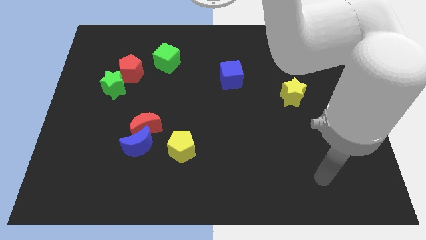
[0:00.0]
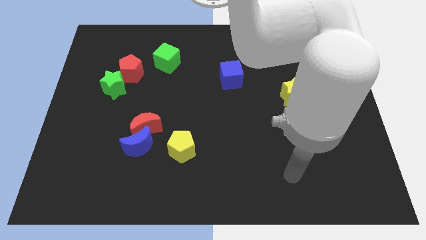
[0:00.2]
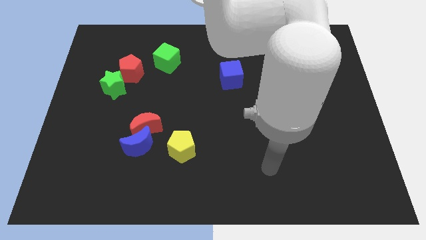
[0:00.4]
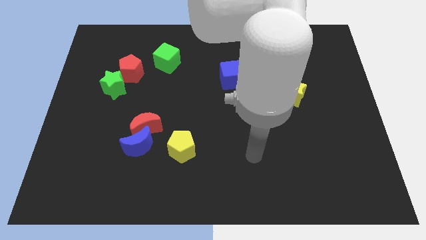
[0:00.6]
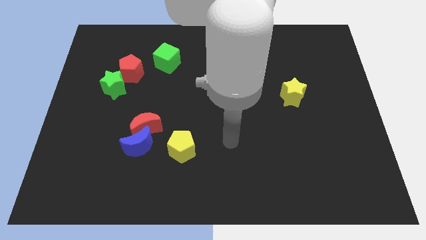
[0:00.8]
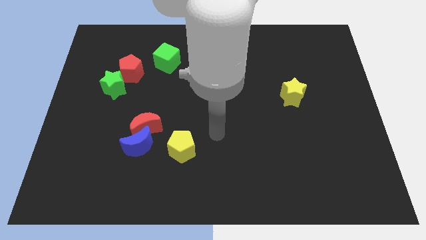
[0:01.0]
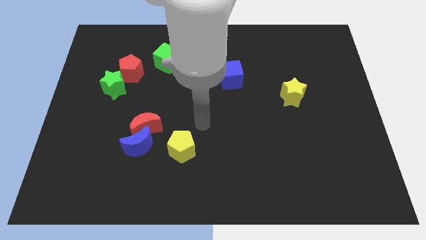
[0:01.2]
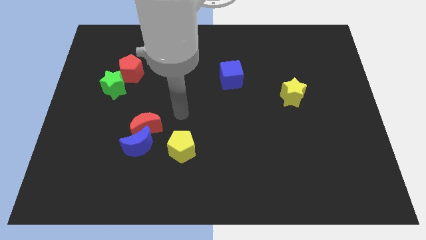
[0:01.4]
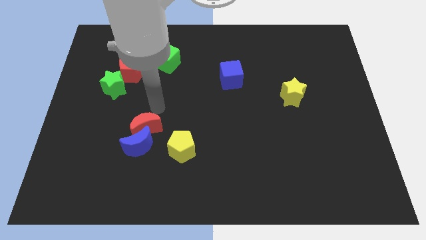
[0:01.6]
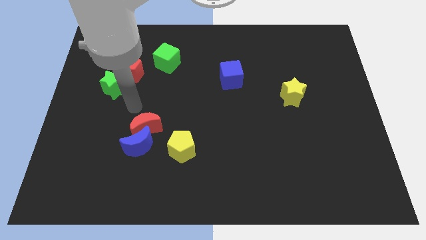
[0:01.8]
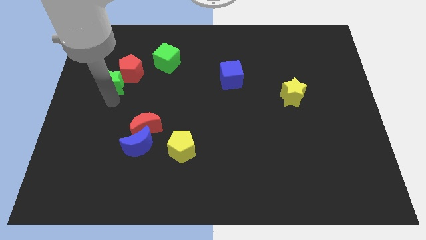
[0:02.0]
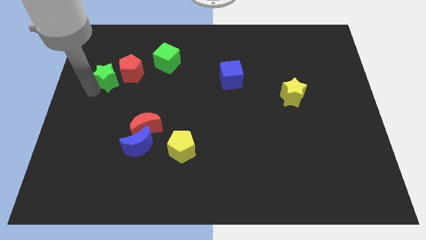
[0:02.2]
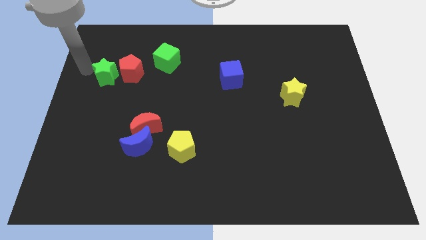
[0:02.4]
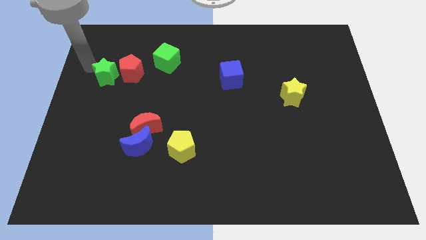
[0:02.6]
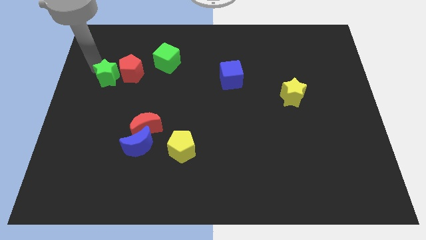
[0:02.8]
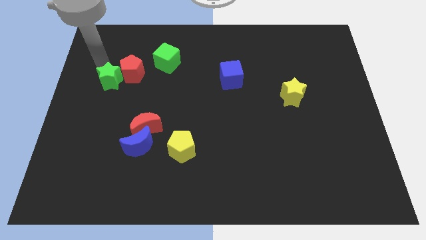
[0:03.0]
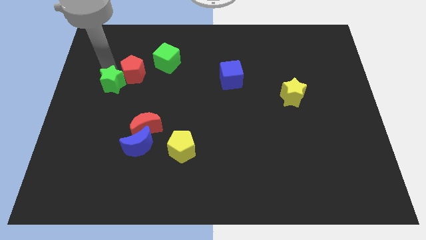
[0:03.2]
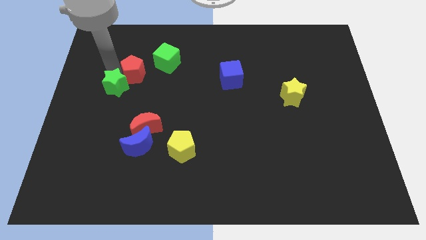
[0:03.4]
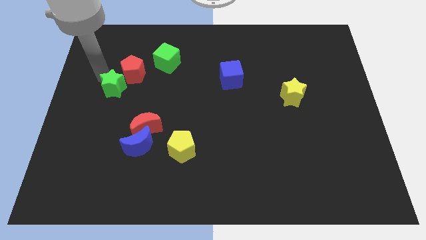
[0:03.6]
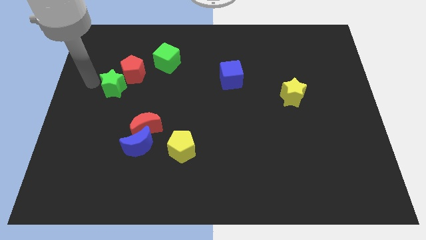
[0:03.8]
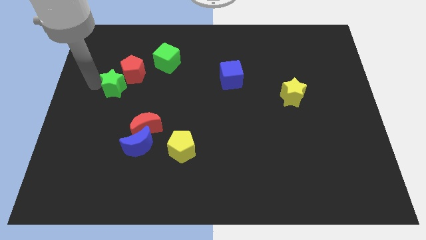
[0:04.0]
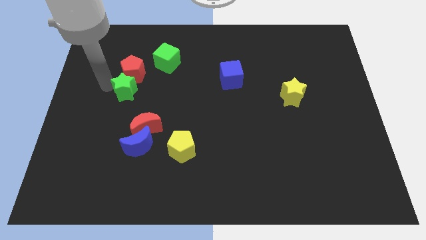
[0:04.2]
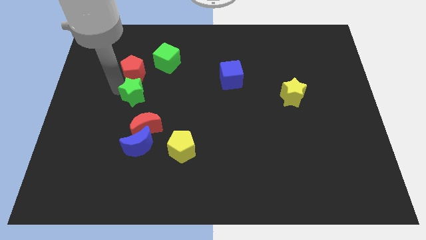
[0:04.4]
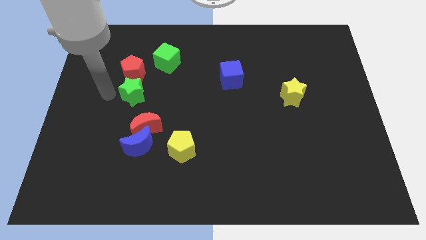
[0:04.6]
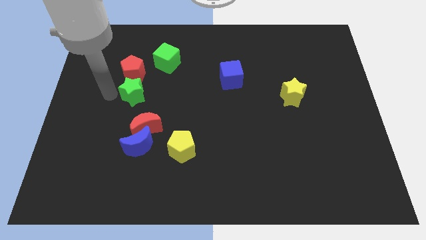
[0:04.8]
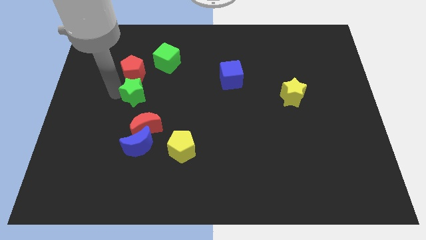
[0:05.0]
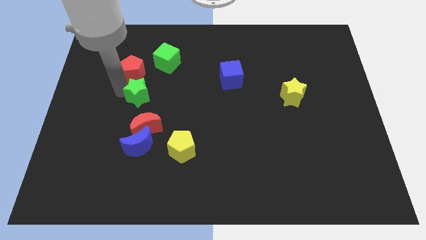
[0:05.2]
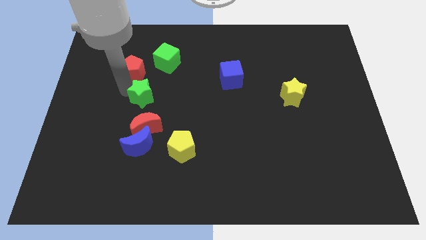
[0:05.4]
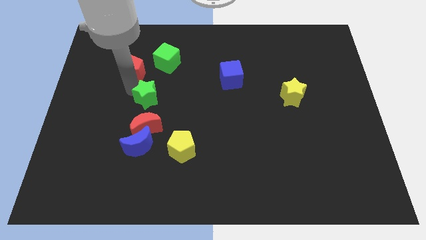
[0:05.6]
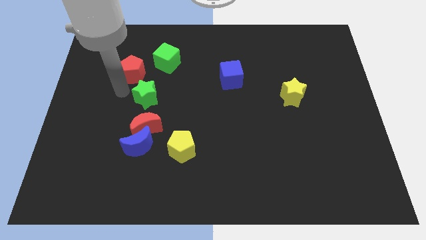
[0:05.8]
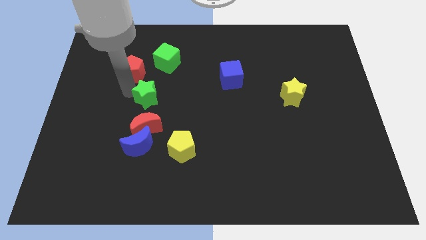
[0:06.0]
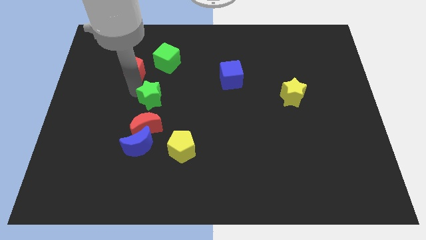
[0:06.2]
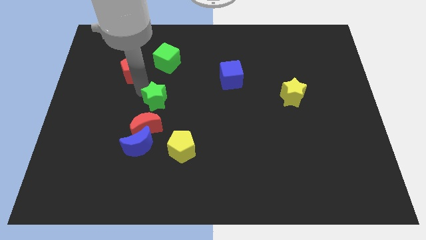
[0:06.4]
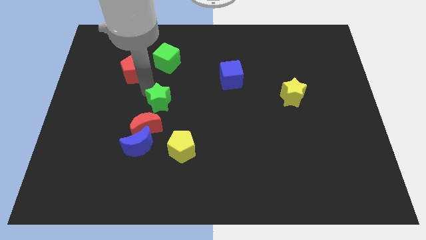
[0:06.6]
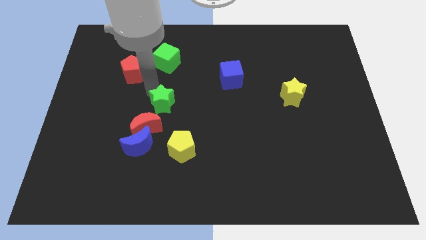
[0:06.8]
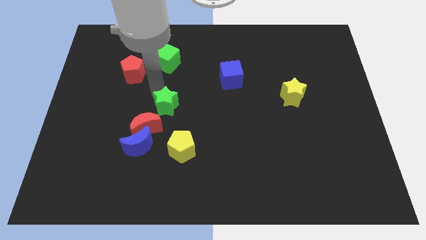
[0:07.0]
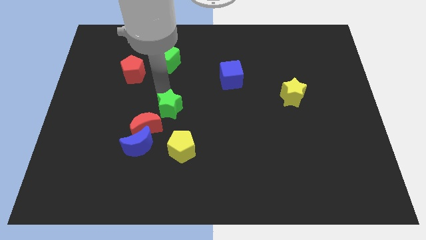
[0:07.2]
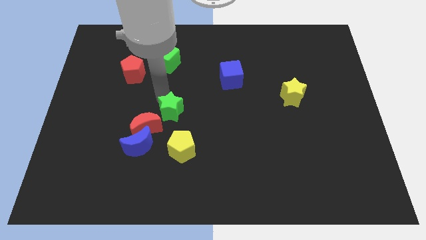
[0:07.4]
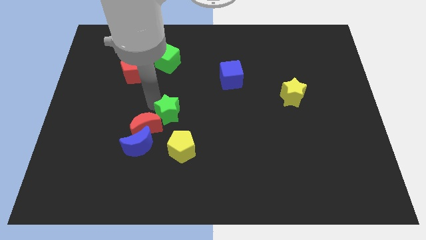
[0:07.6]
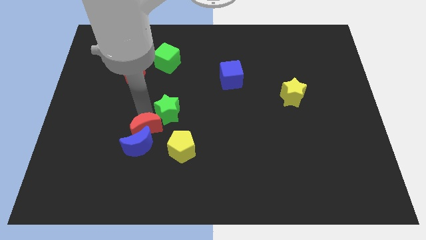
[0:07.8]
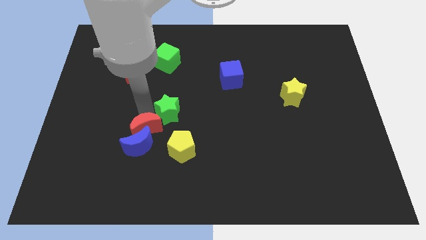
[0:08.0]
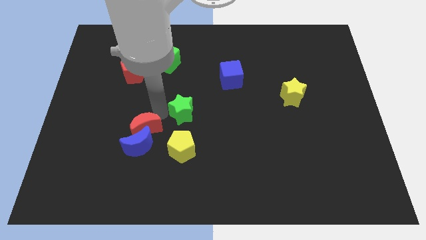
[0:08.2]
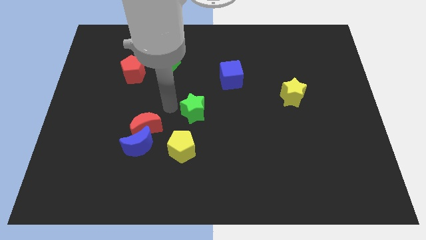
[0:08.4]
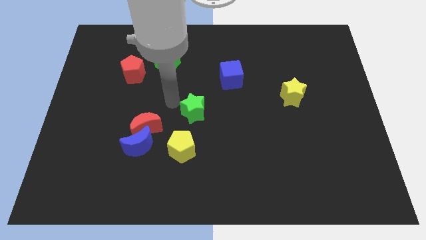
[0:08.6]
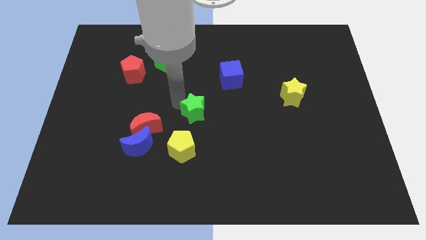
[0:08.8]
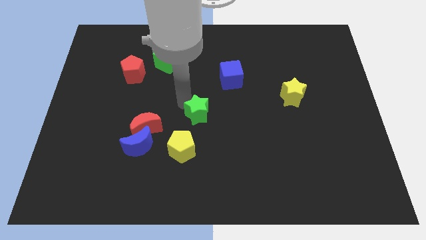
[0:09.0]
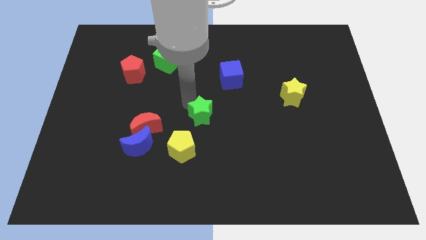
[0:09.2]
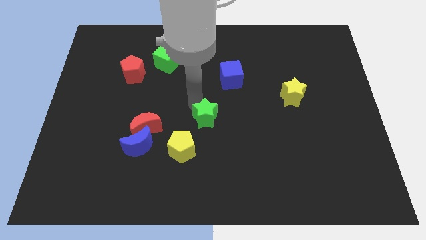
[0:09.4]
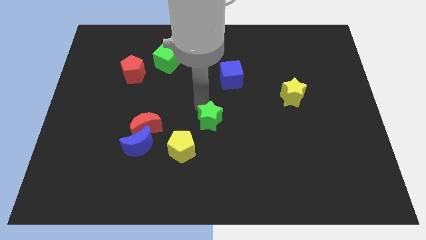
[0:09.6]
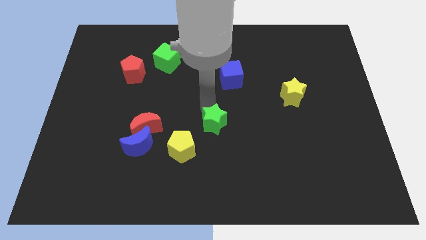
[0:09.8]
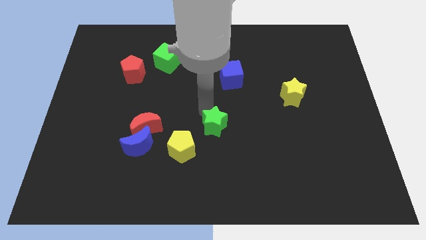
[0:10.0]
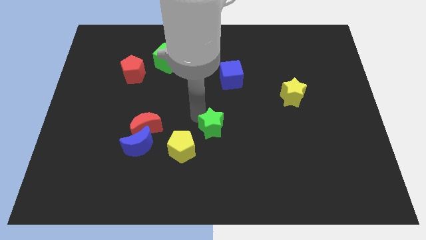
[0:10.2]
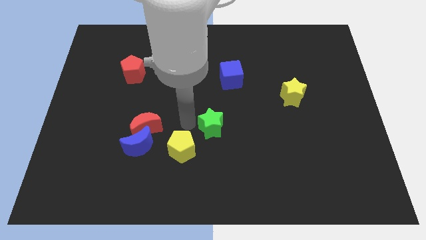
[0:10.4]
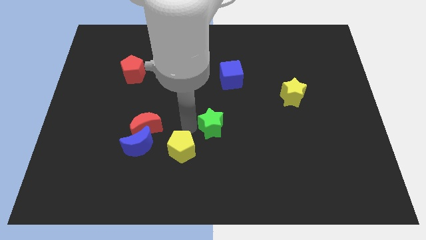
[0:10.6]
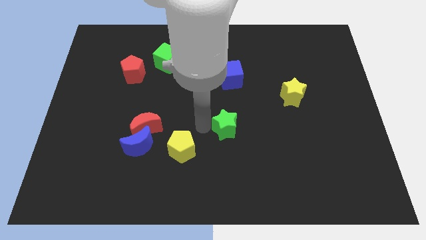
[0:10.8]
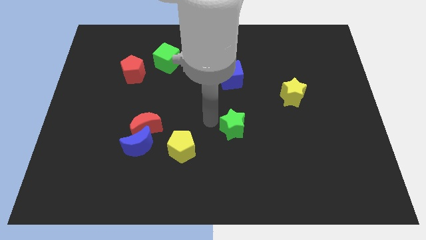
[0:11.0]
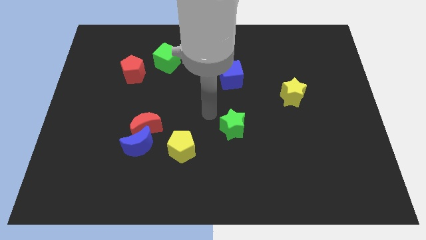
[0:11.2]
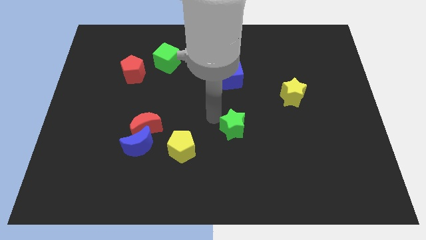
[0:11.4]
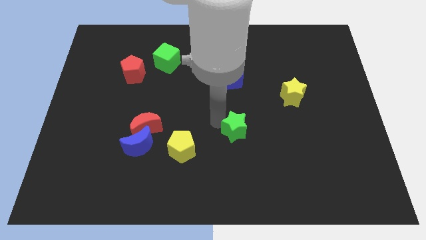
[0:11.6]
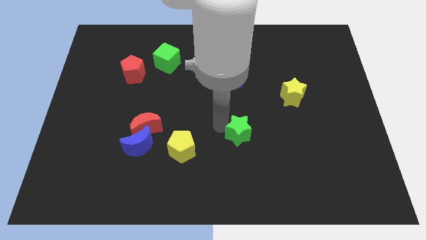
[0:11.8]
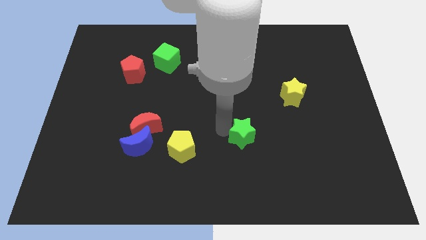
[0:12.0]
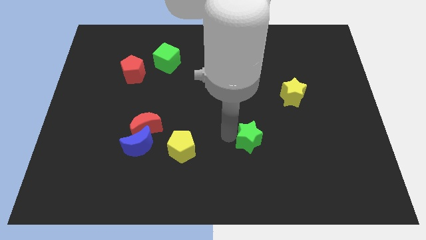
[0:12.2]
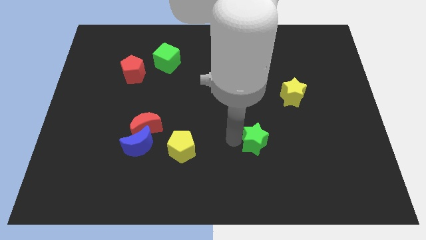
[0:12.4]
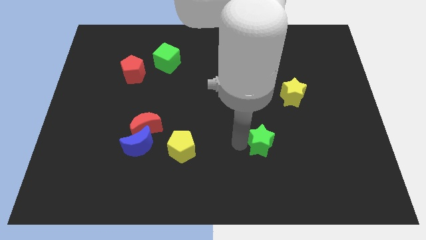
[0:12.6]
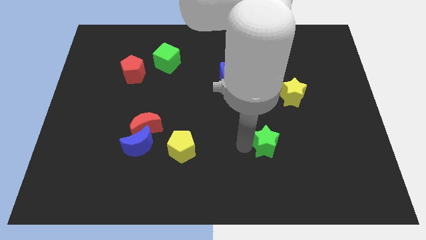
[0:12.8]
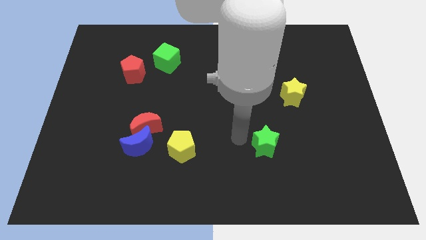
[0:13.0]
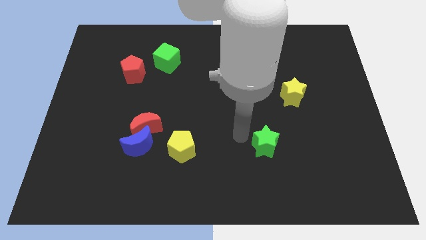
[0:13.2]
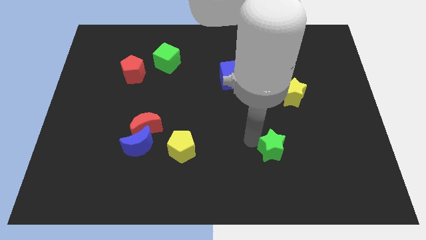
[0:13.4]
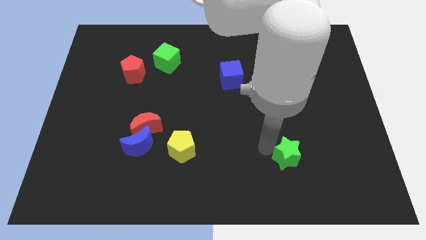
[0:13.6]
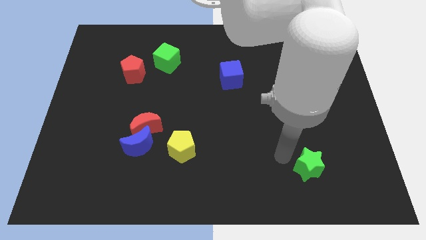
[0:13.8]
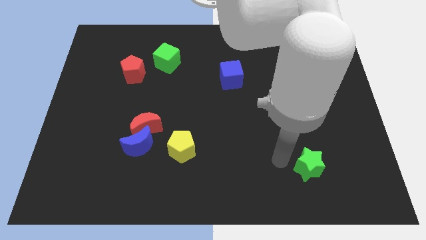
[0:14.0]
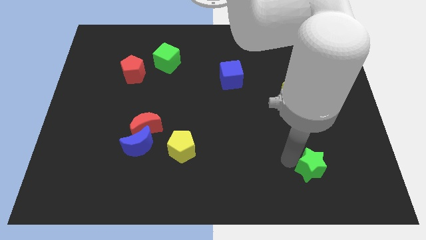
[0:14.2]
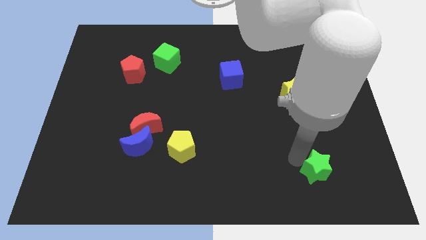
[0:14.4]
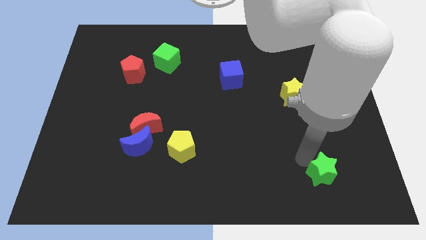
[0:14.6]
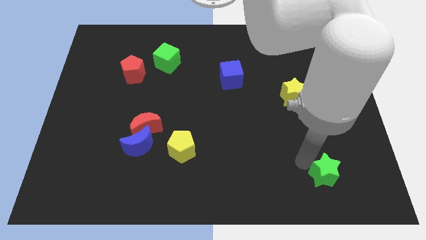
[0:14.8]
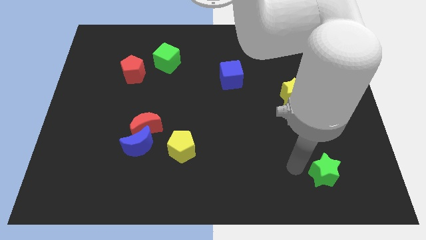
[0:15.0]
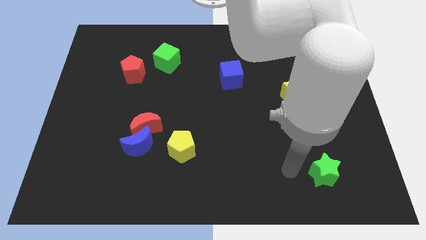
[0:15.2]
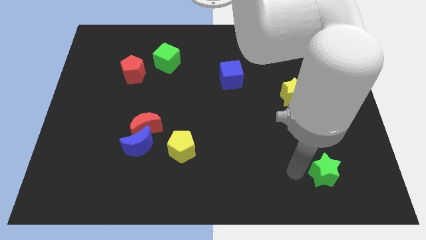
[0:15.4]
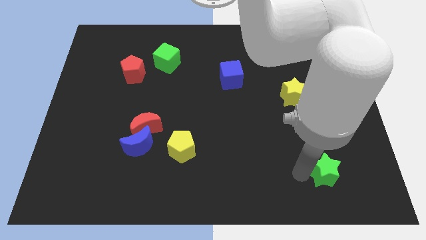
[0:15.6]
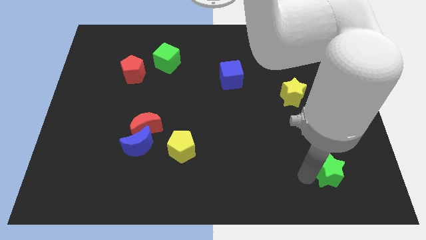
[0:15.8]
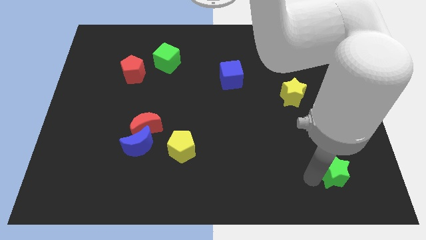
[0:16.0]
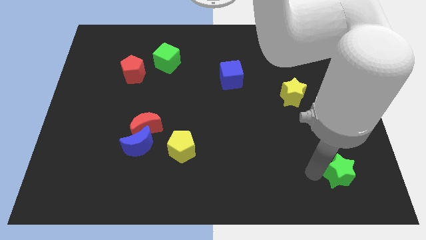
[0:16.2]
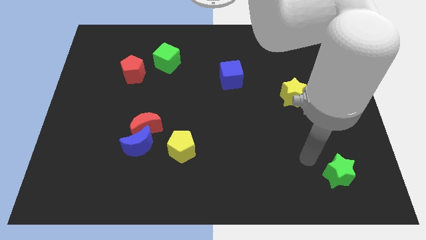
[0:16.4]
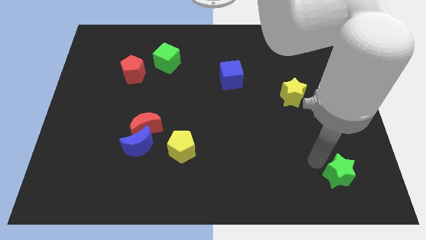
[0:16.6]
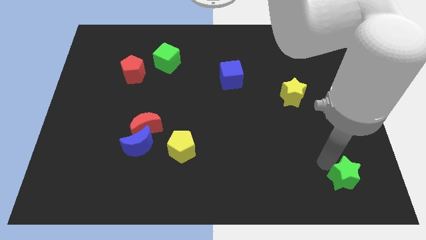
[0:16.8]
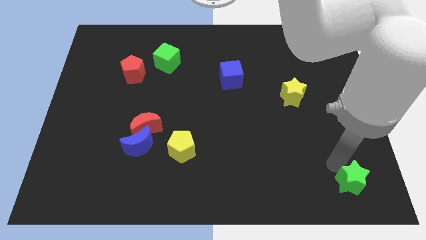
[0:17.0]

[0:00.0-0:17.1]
push the green star to the bottom right corner
